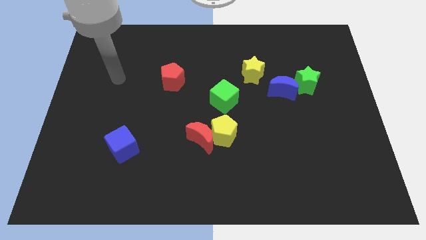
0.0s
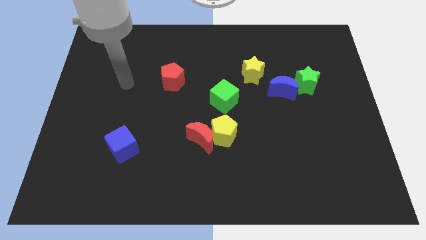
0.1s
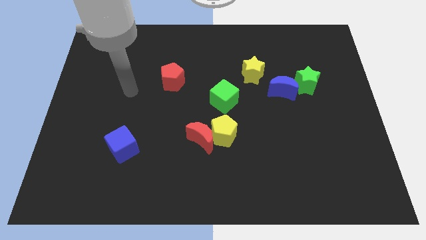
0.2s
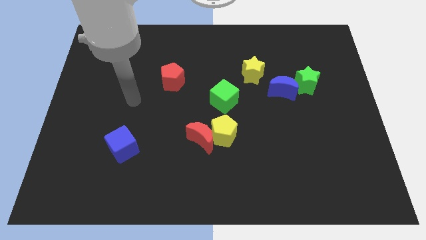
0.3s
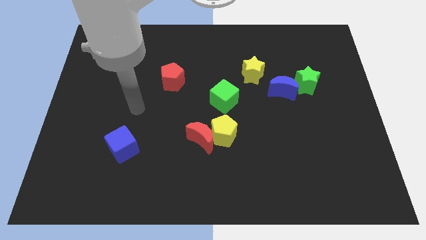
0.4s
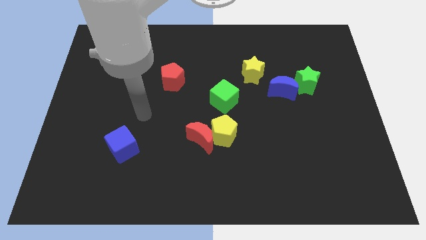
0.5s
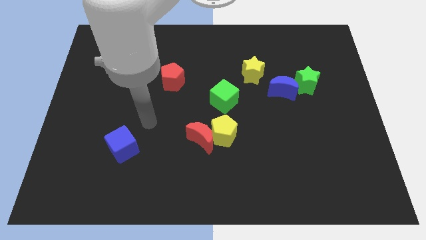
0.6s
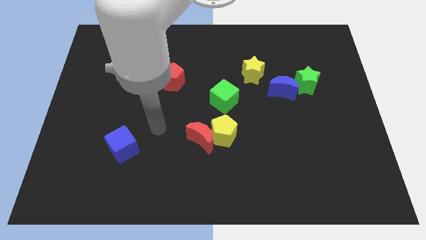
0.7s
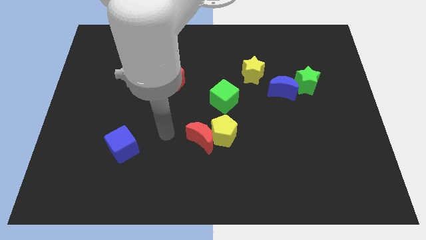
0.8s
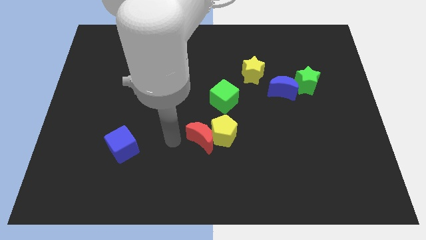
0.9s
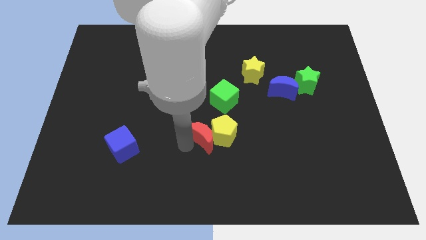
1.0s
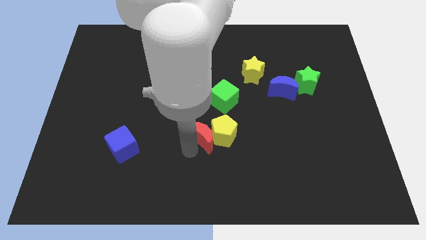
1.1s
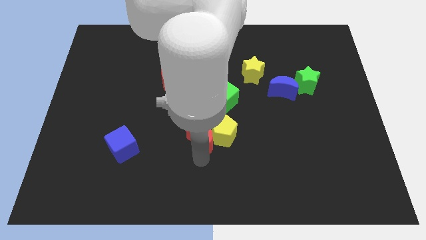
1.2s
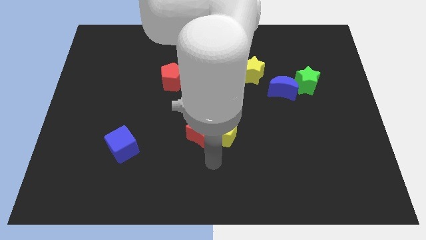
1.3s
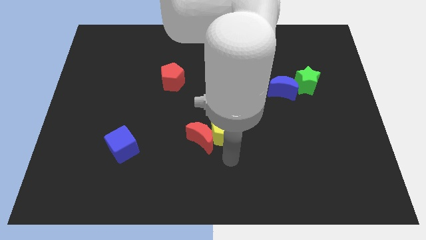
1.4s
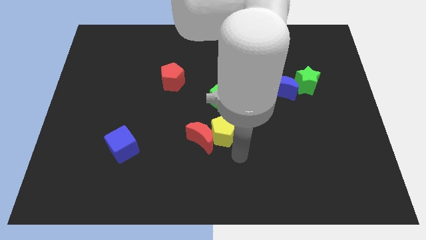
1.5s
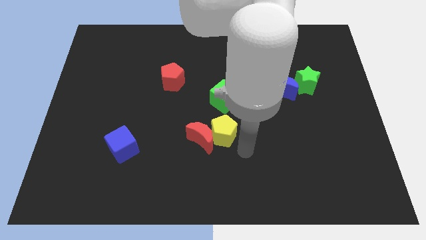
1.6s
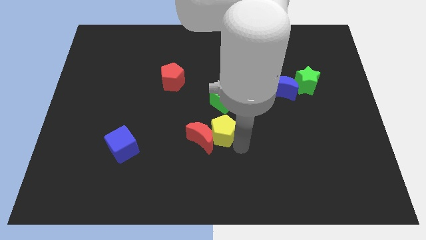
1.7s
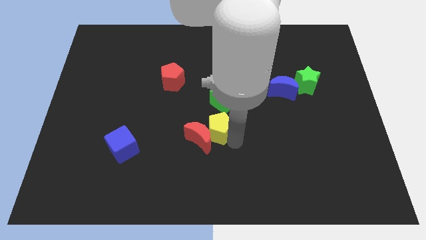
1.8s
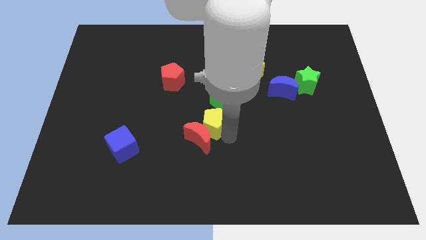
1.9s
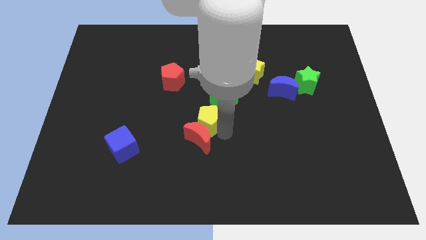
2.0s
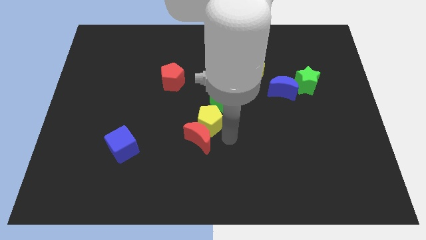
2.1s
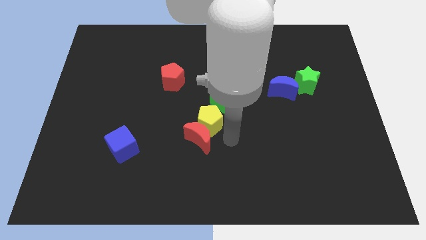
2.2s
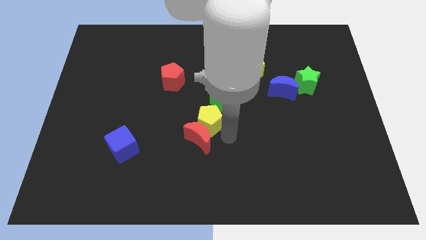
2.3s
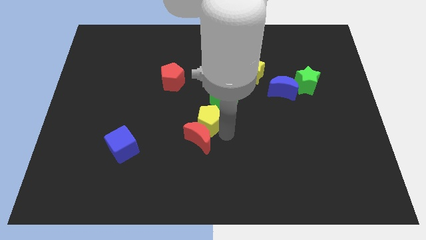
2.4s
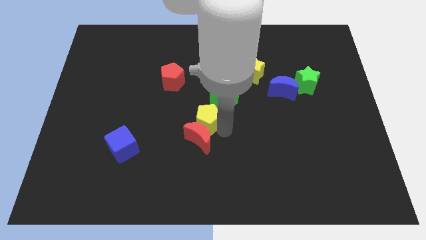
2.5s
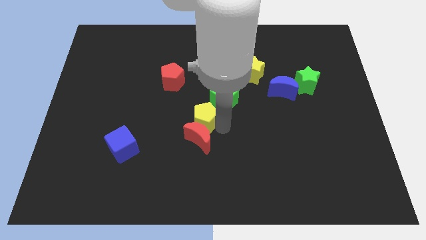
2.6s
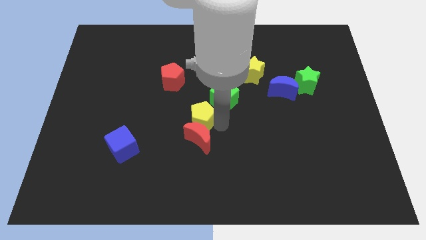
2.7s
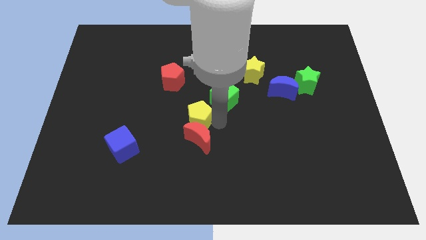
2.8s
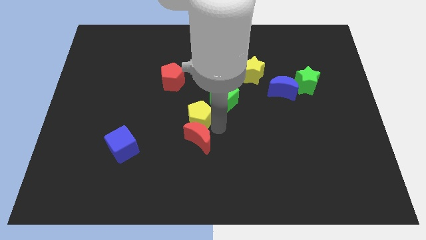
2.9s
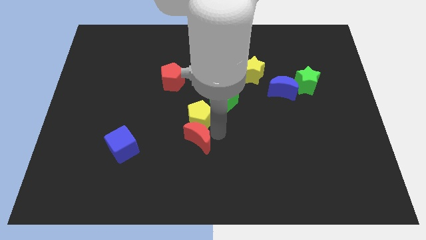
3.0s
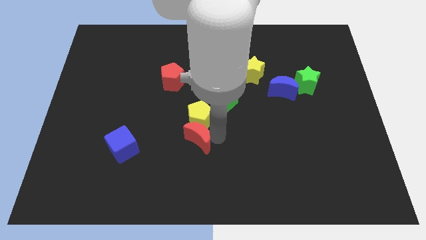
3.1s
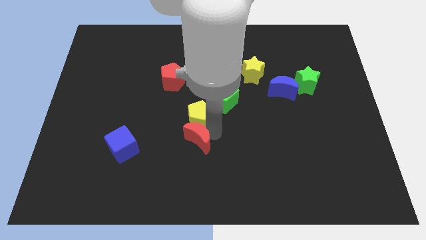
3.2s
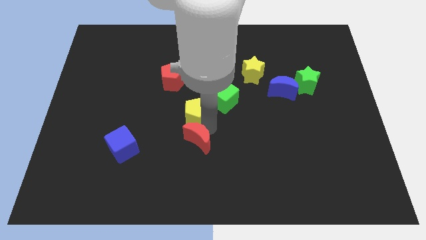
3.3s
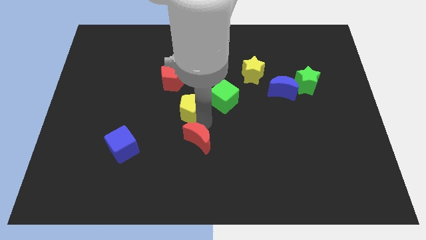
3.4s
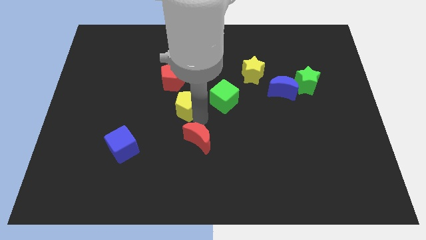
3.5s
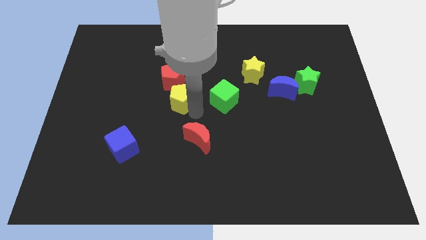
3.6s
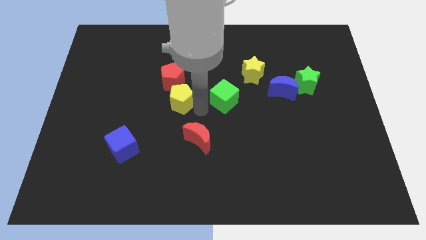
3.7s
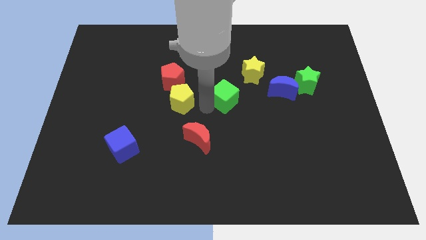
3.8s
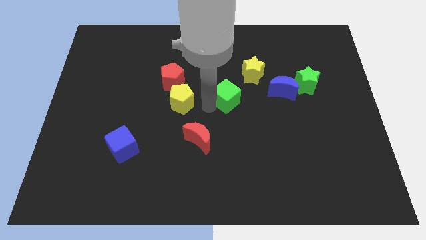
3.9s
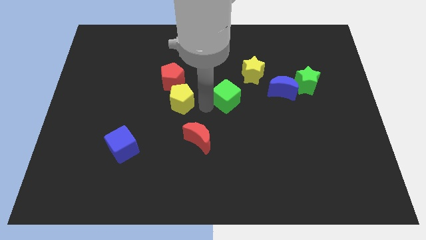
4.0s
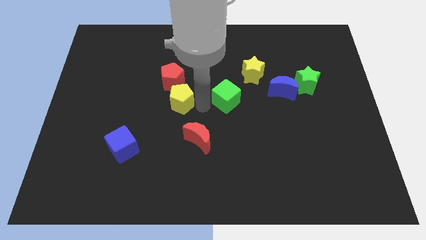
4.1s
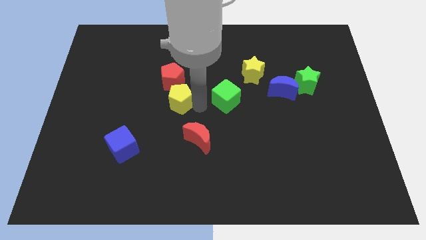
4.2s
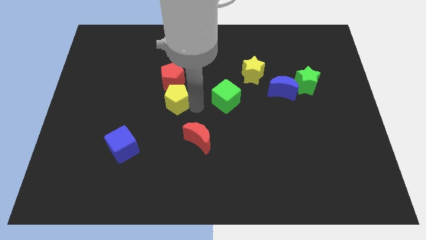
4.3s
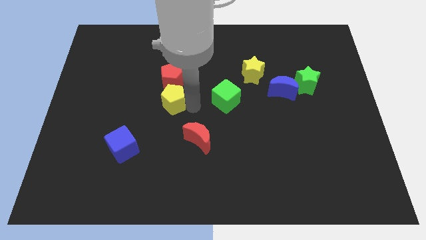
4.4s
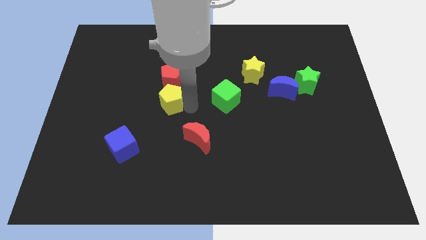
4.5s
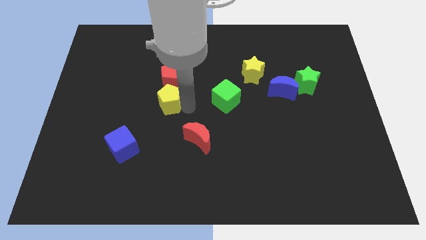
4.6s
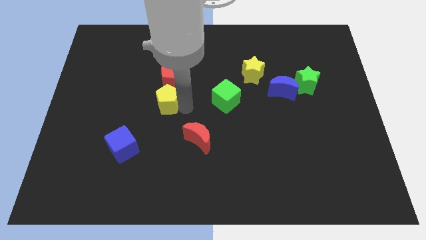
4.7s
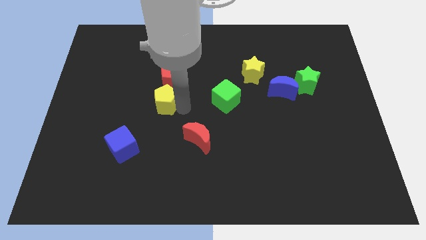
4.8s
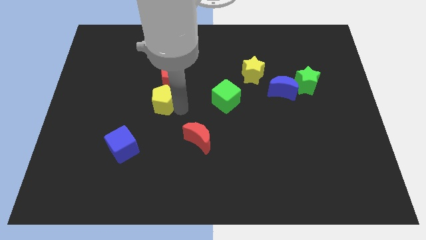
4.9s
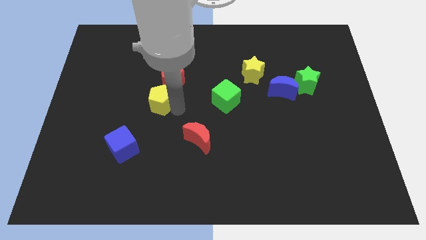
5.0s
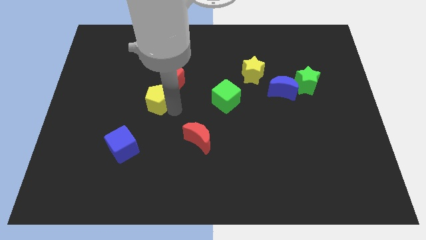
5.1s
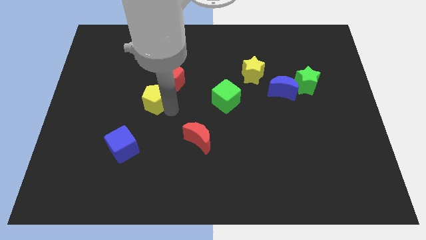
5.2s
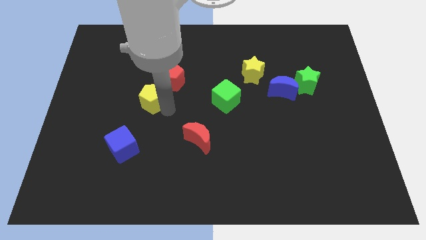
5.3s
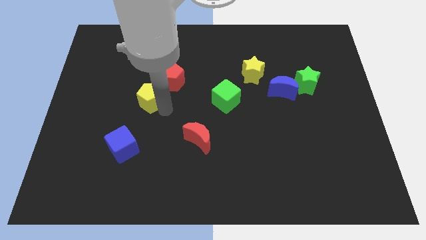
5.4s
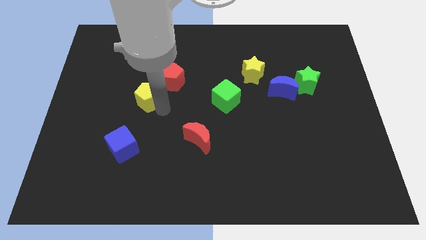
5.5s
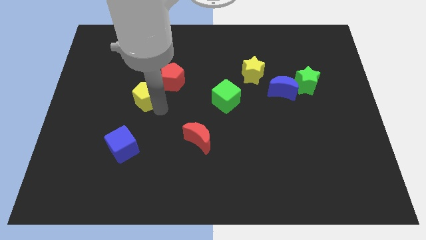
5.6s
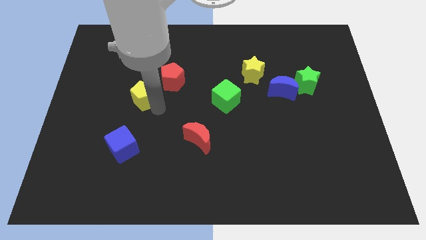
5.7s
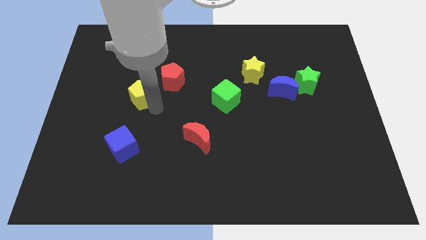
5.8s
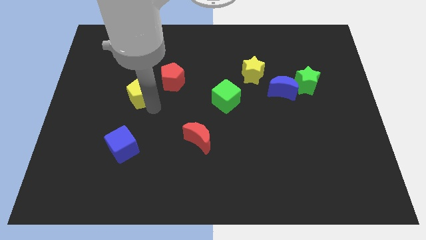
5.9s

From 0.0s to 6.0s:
push the yellow pentagon upwards and then to the left

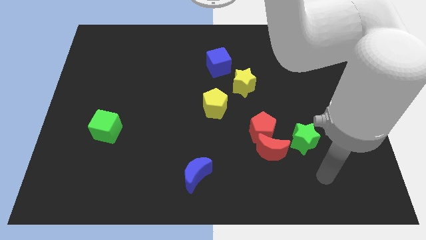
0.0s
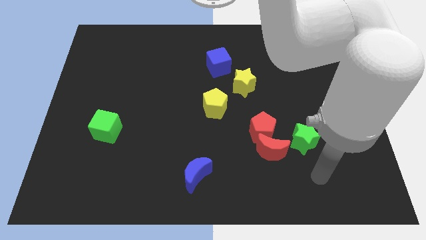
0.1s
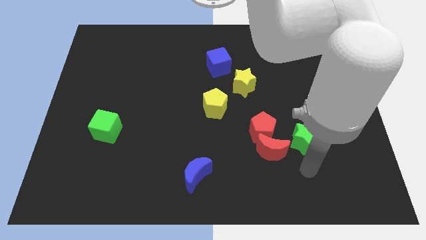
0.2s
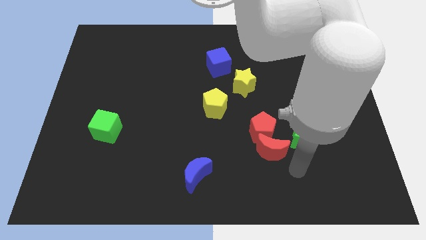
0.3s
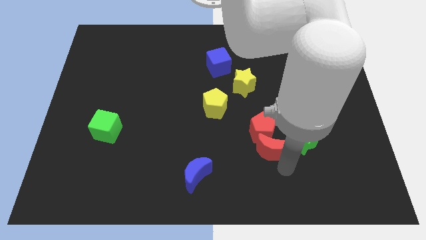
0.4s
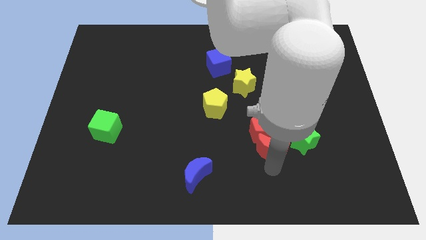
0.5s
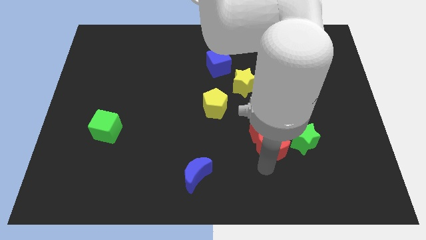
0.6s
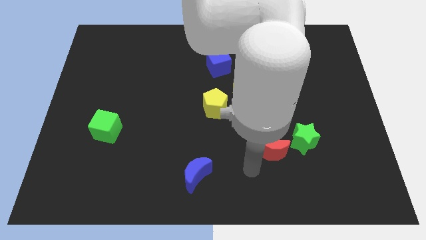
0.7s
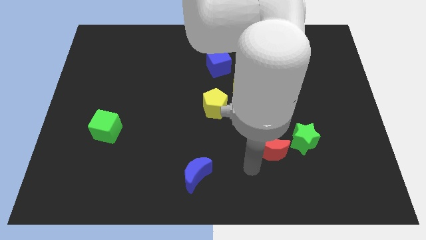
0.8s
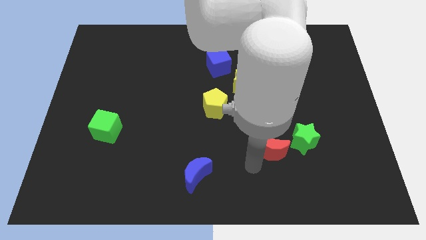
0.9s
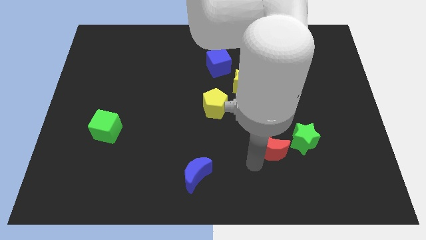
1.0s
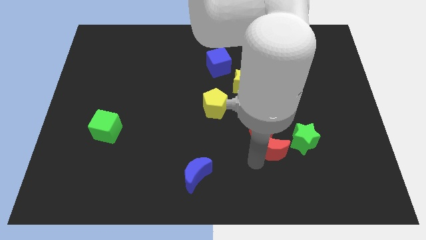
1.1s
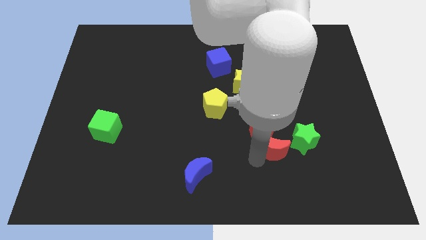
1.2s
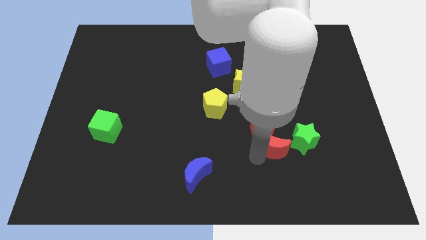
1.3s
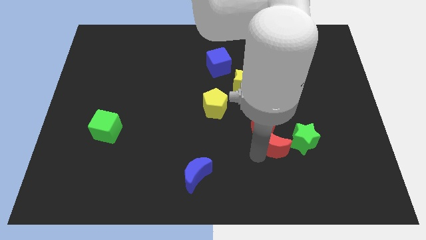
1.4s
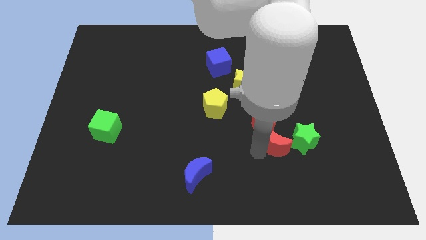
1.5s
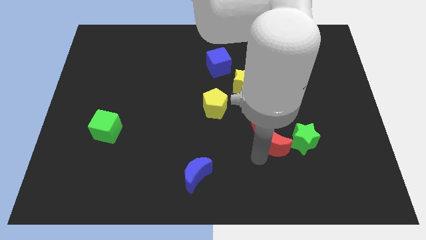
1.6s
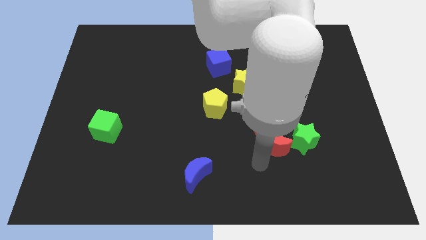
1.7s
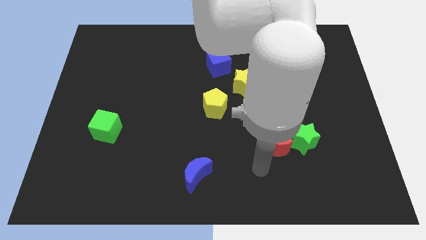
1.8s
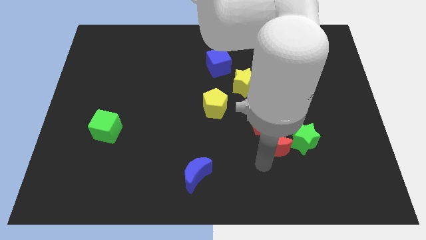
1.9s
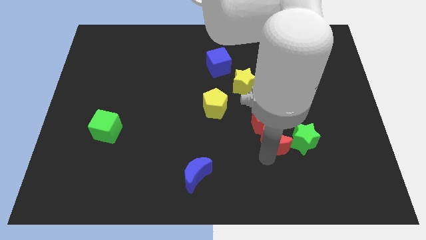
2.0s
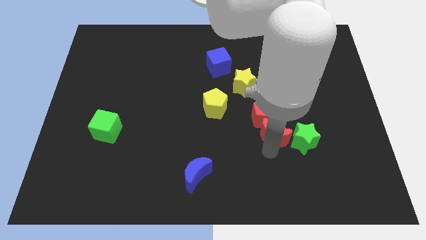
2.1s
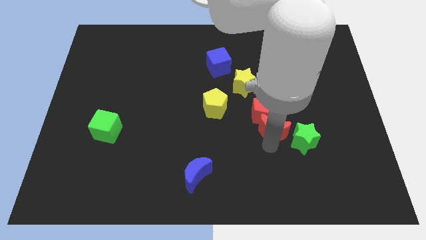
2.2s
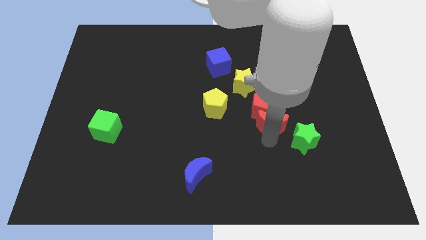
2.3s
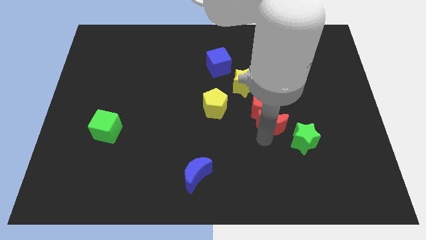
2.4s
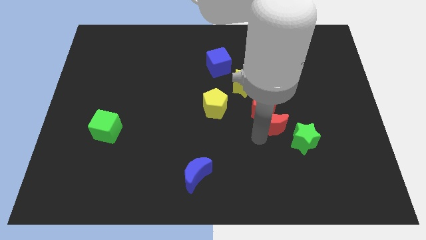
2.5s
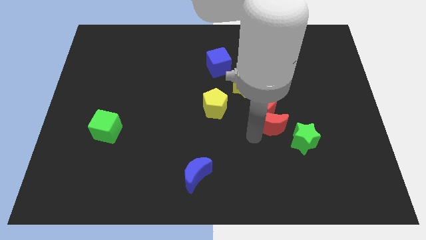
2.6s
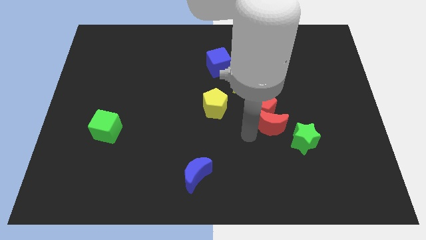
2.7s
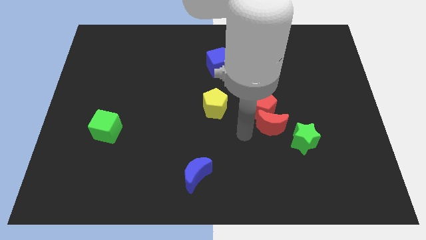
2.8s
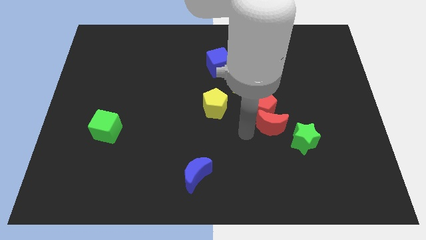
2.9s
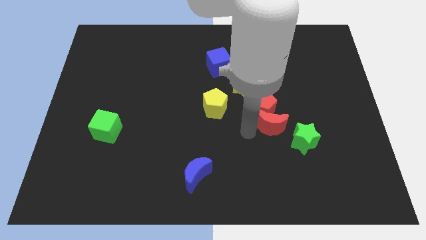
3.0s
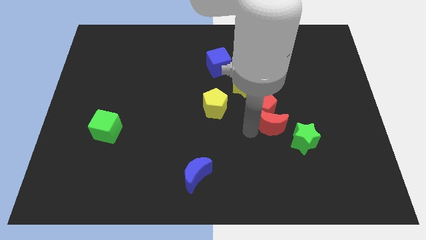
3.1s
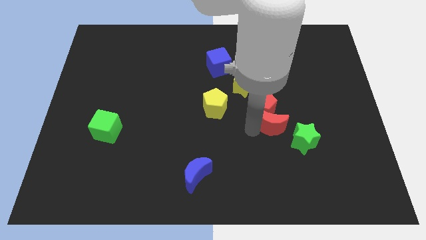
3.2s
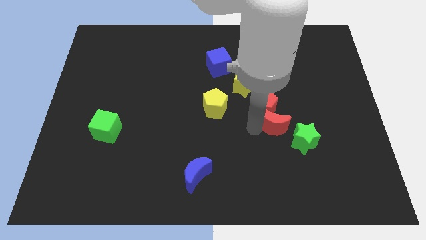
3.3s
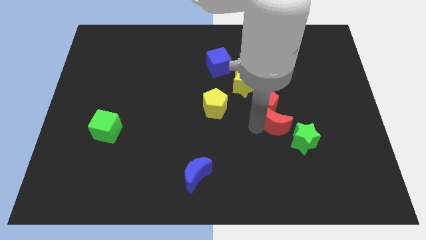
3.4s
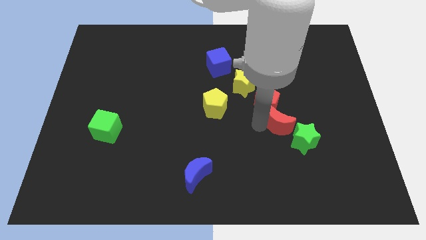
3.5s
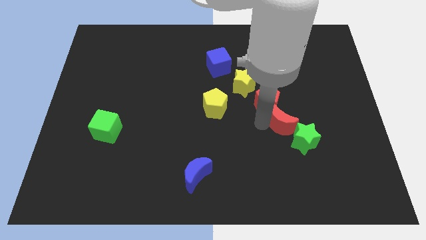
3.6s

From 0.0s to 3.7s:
push the red moon a little upwards and to the right
